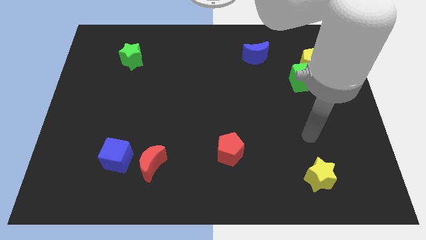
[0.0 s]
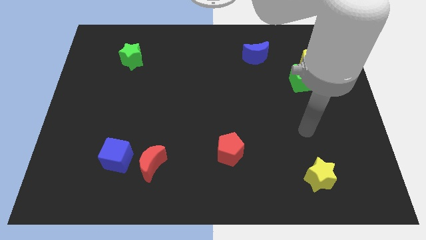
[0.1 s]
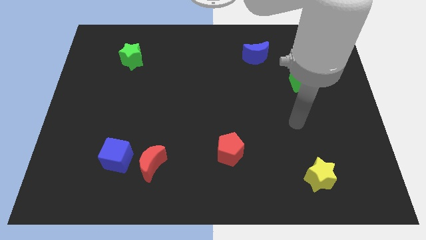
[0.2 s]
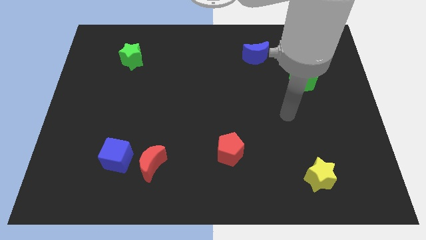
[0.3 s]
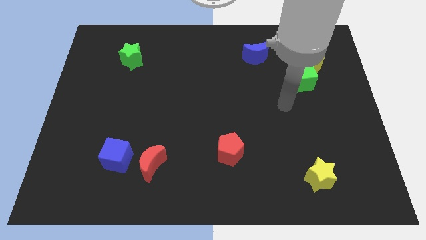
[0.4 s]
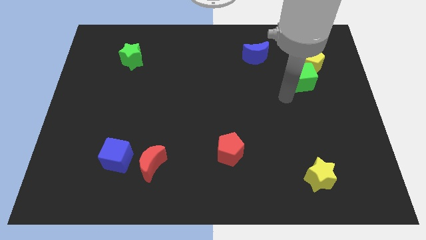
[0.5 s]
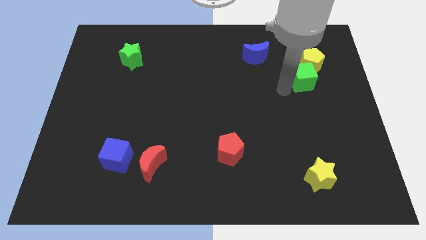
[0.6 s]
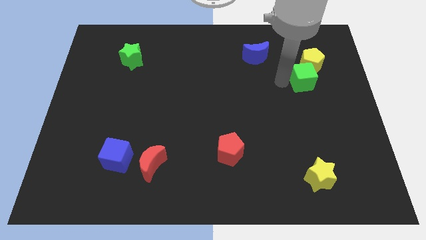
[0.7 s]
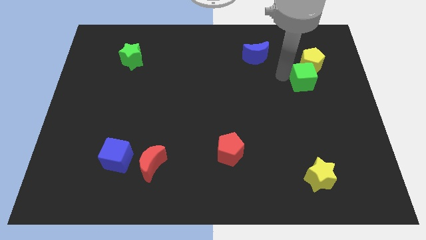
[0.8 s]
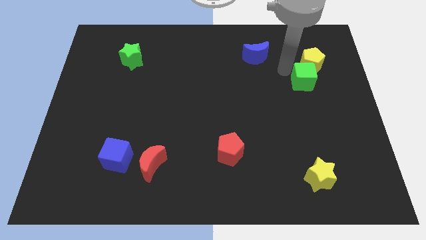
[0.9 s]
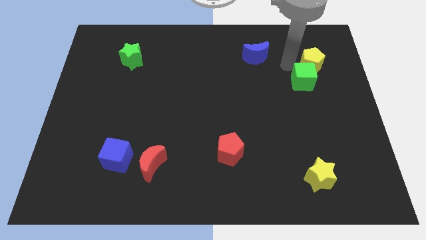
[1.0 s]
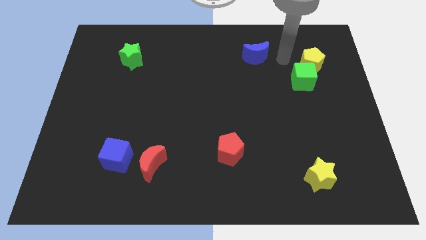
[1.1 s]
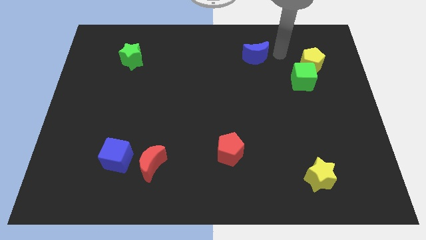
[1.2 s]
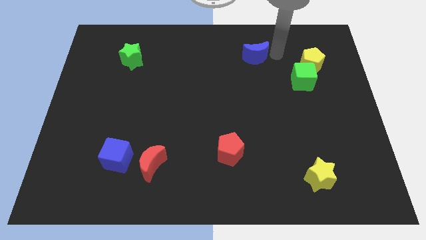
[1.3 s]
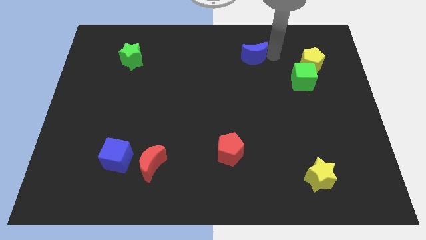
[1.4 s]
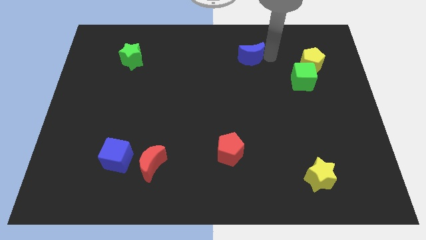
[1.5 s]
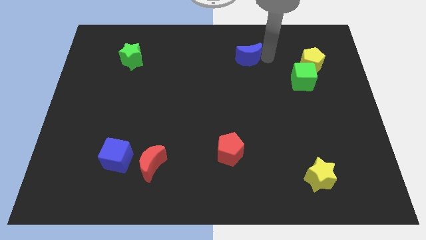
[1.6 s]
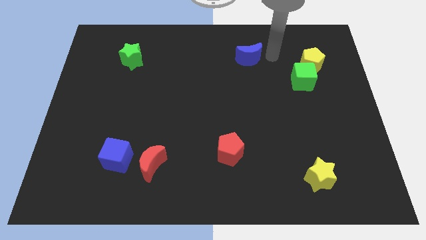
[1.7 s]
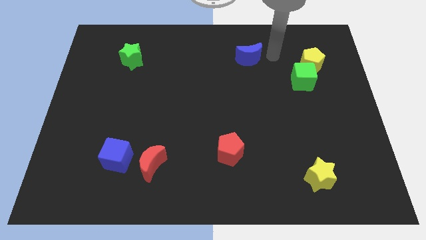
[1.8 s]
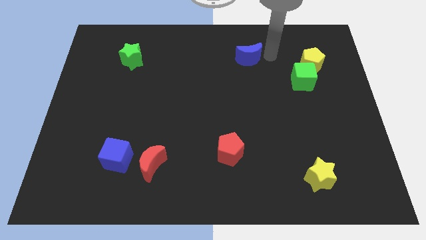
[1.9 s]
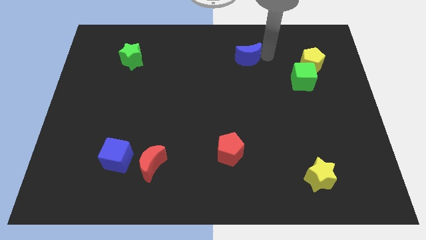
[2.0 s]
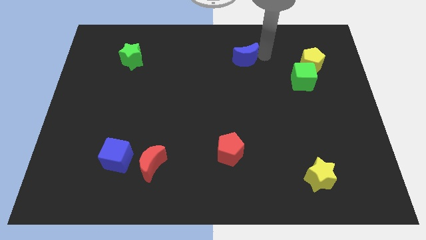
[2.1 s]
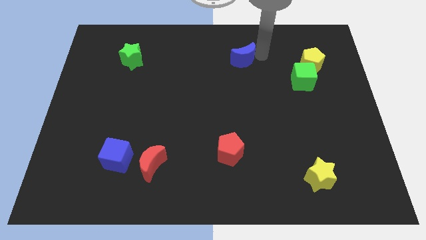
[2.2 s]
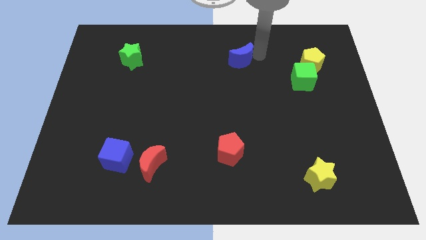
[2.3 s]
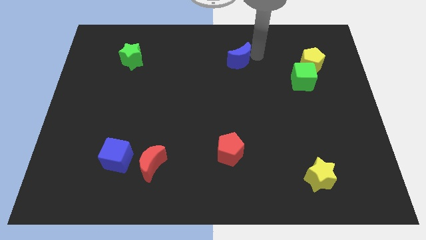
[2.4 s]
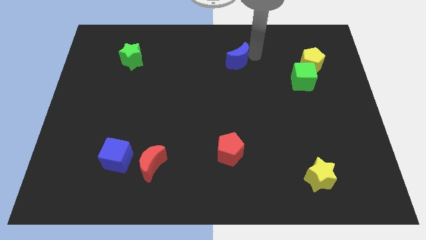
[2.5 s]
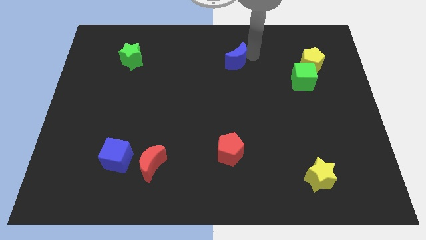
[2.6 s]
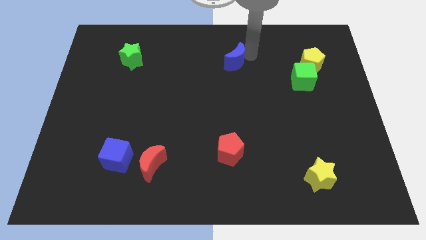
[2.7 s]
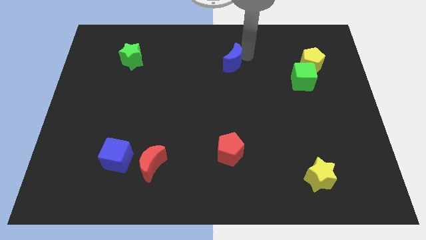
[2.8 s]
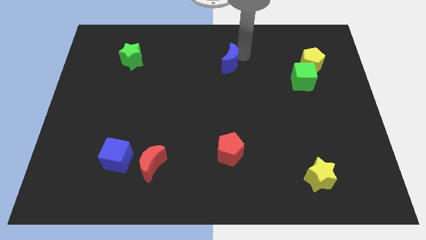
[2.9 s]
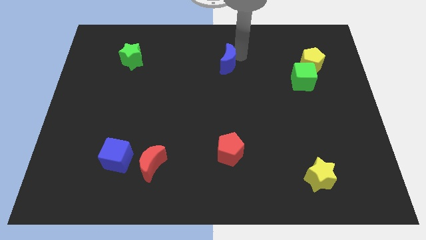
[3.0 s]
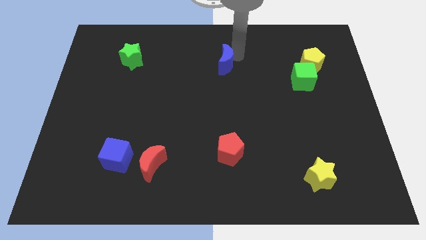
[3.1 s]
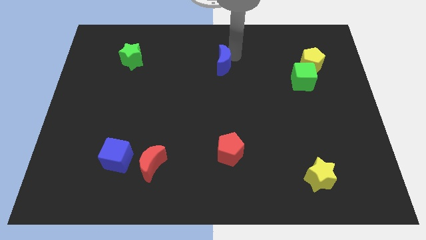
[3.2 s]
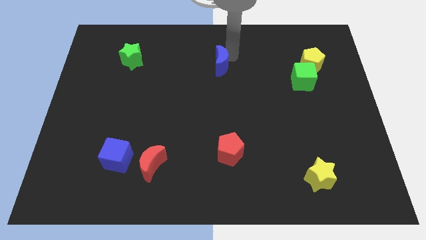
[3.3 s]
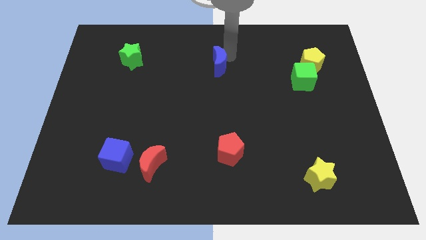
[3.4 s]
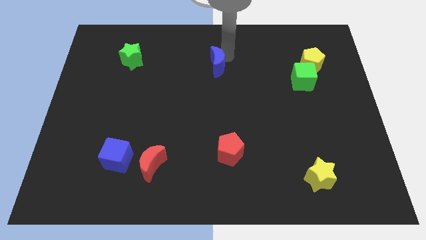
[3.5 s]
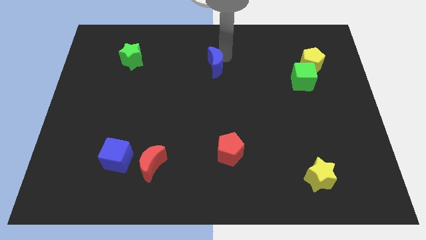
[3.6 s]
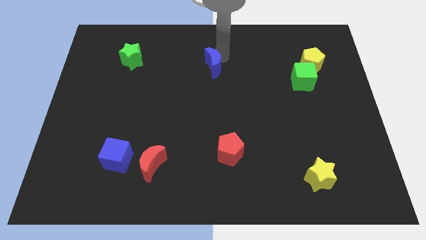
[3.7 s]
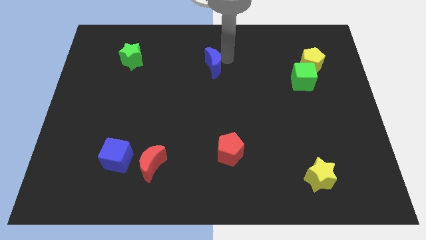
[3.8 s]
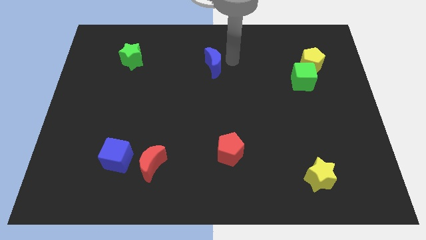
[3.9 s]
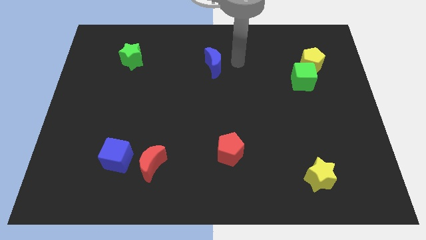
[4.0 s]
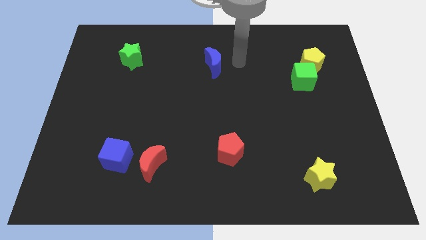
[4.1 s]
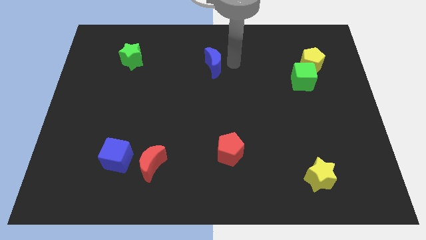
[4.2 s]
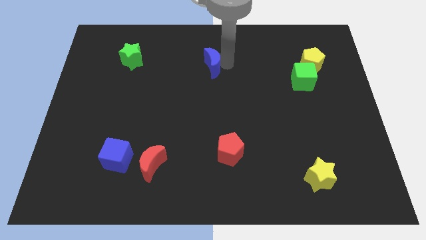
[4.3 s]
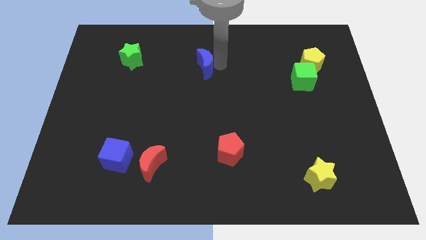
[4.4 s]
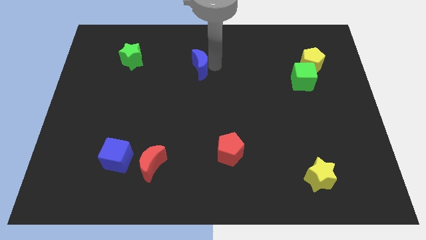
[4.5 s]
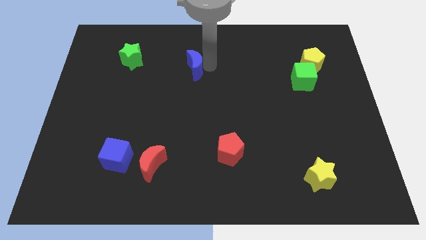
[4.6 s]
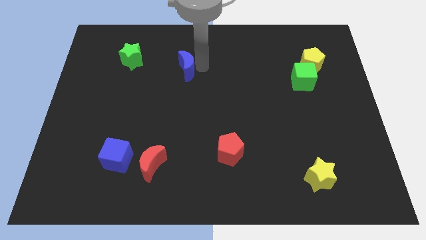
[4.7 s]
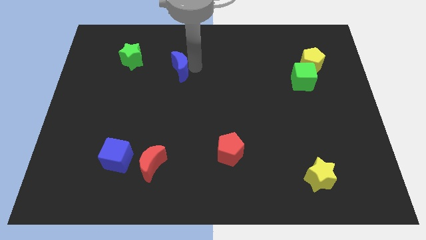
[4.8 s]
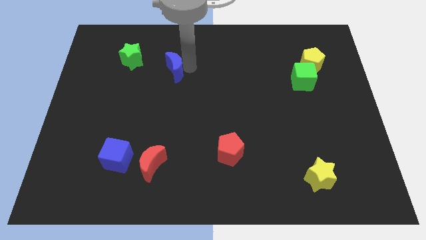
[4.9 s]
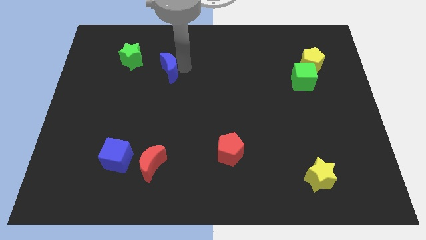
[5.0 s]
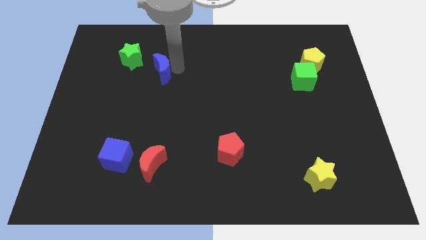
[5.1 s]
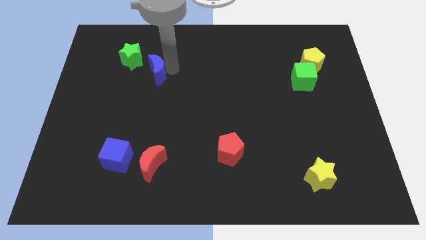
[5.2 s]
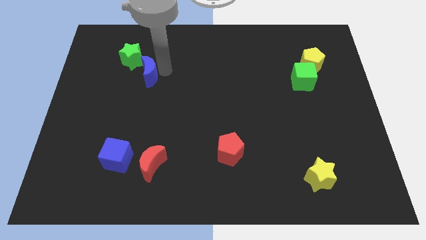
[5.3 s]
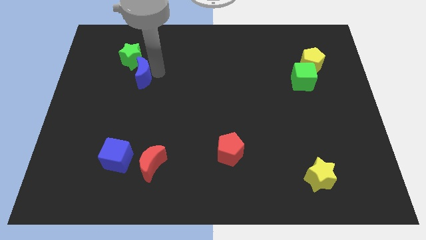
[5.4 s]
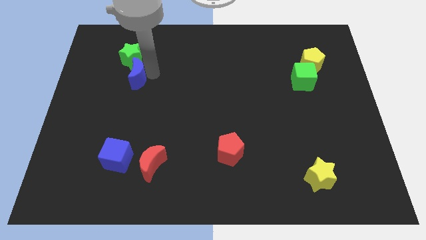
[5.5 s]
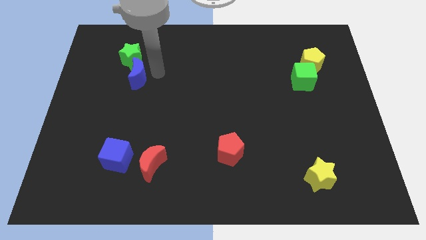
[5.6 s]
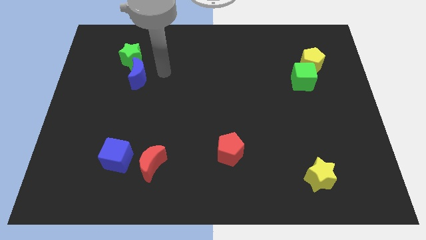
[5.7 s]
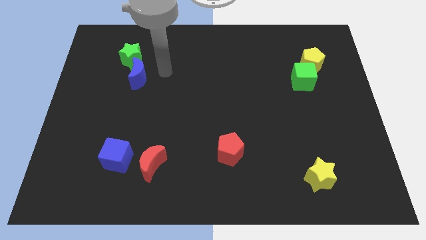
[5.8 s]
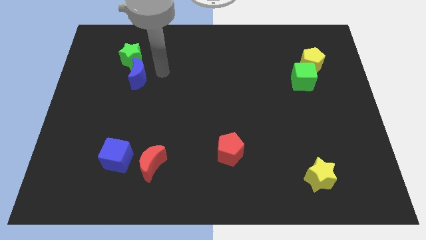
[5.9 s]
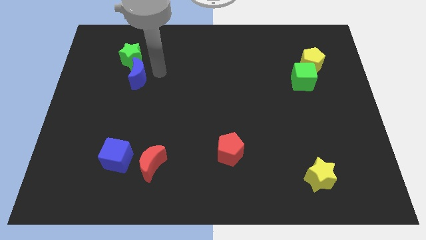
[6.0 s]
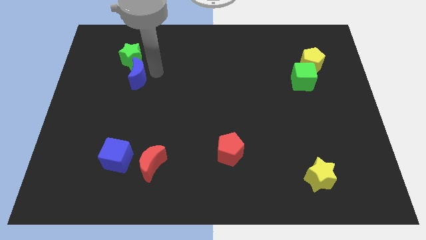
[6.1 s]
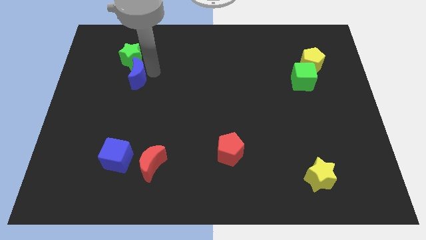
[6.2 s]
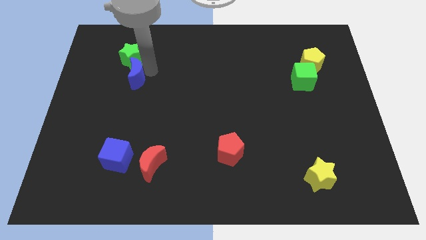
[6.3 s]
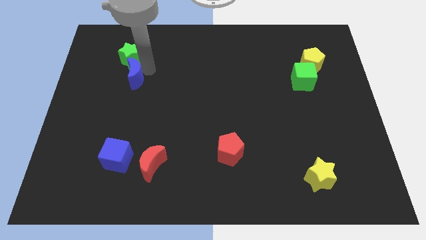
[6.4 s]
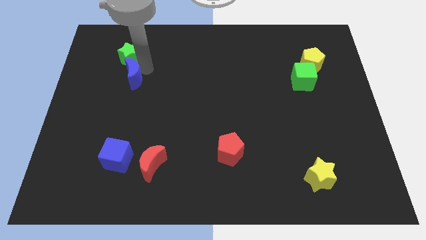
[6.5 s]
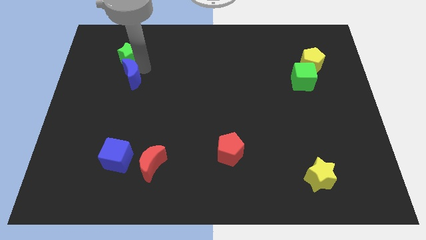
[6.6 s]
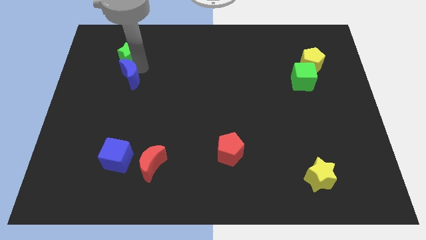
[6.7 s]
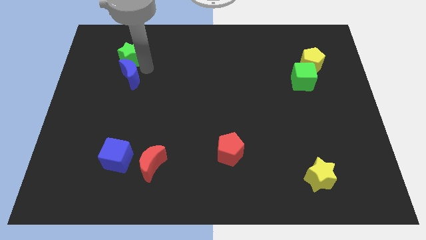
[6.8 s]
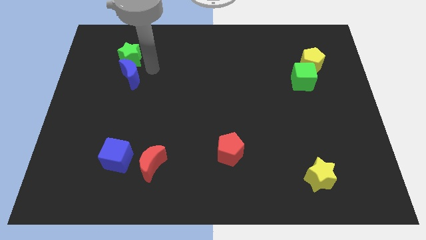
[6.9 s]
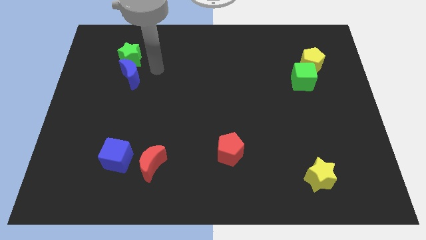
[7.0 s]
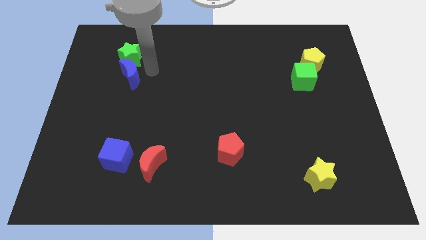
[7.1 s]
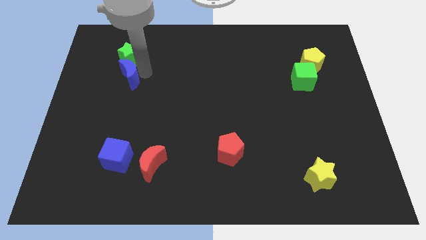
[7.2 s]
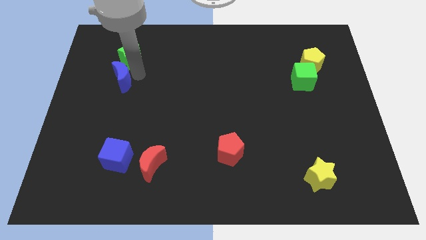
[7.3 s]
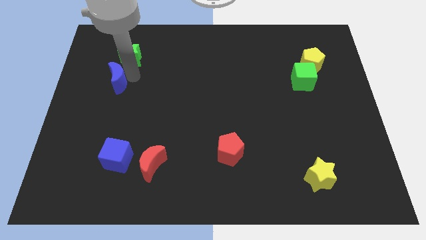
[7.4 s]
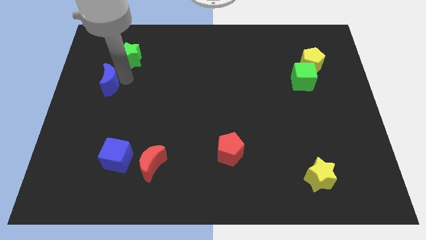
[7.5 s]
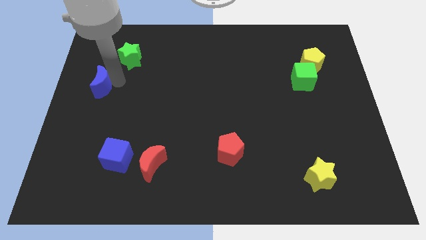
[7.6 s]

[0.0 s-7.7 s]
push the blue moon to the left side
